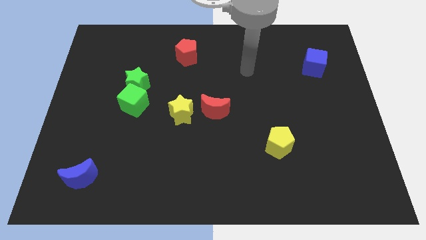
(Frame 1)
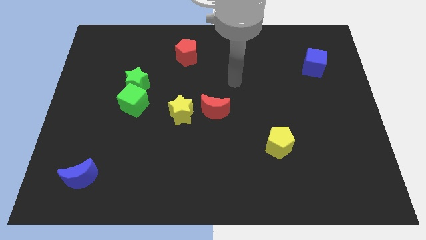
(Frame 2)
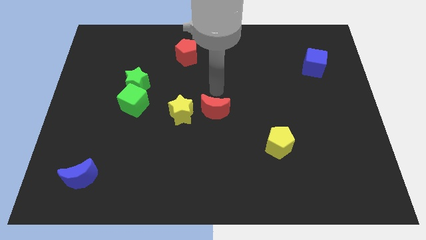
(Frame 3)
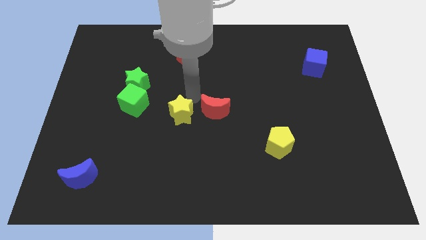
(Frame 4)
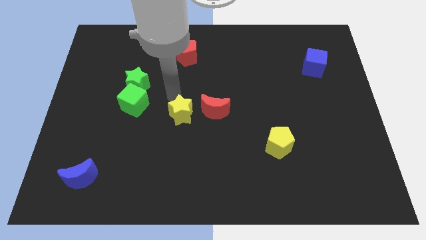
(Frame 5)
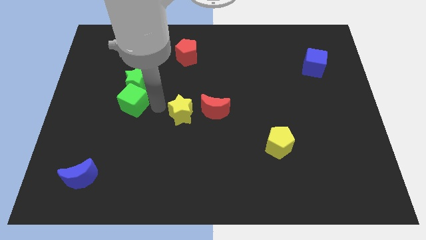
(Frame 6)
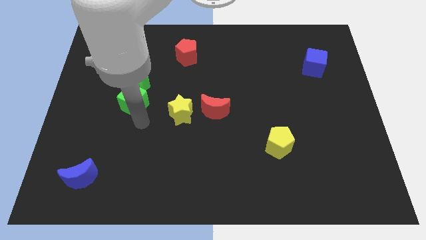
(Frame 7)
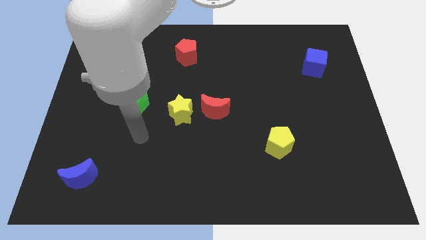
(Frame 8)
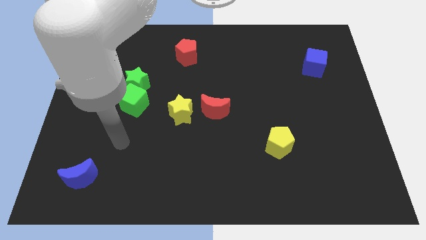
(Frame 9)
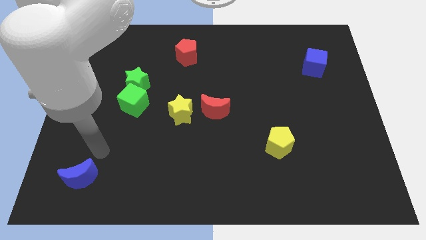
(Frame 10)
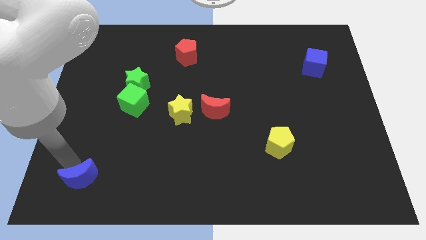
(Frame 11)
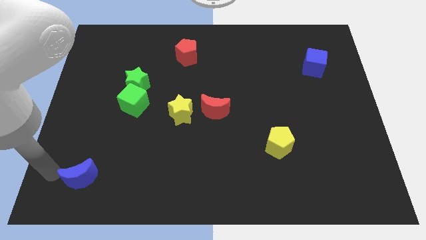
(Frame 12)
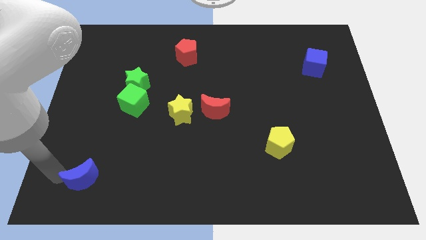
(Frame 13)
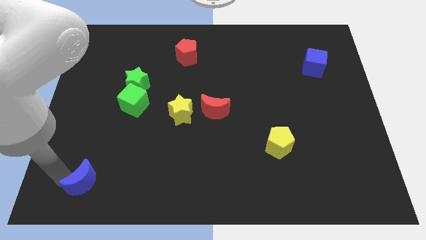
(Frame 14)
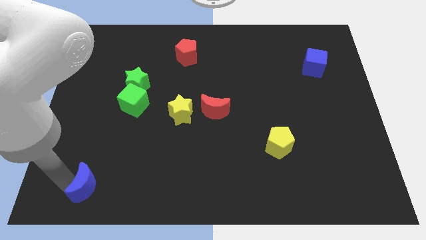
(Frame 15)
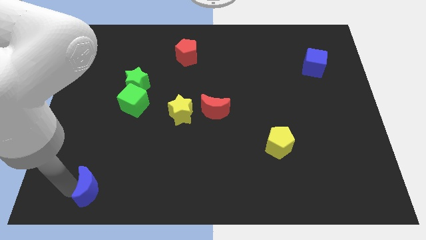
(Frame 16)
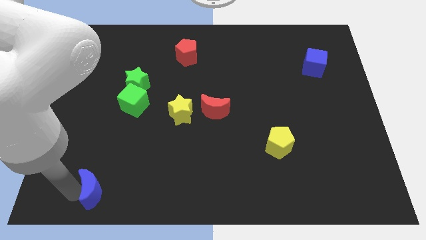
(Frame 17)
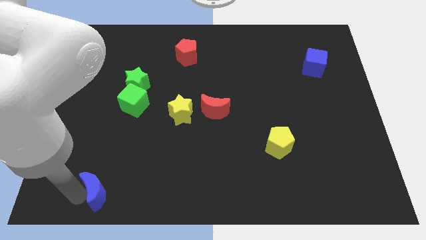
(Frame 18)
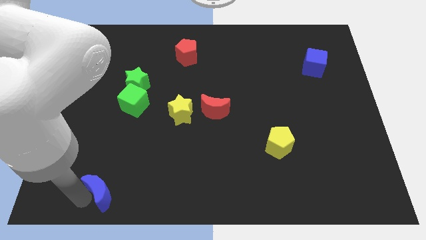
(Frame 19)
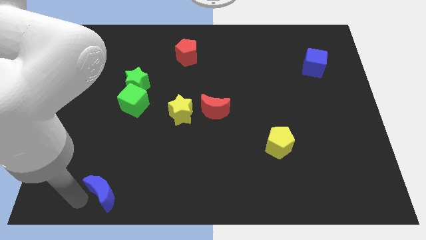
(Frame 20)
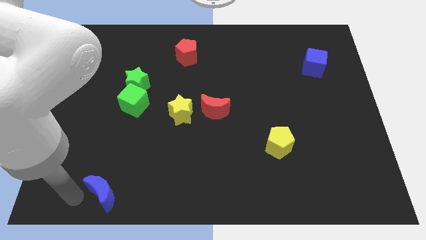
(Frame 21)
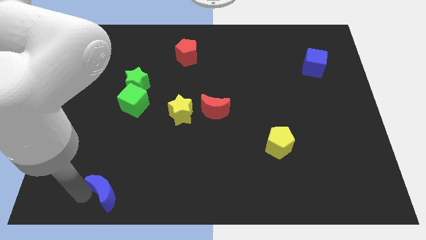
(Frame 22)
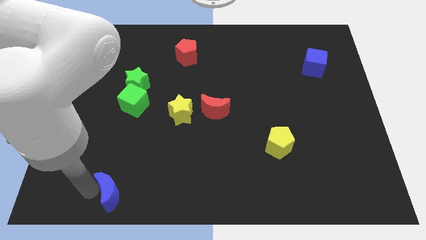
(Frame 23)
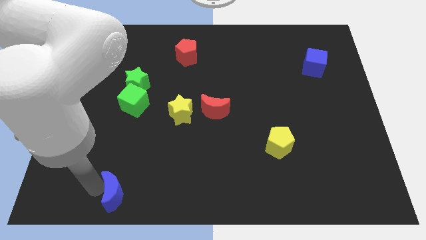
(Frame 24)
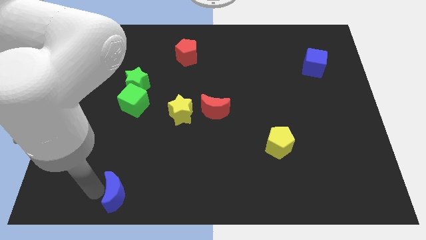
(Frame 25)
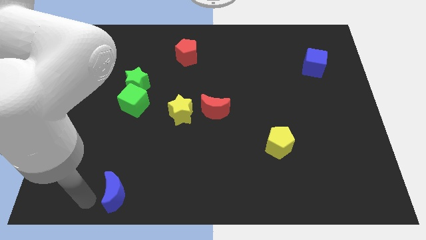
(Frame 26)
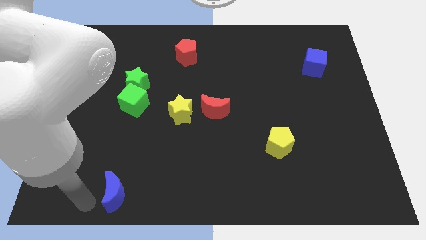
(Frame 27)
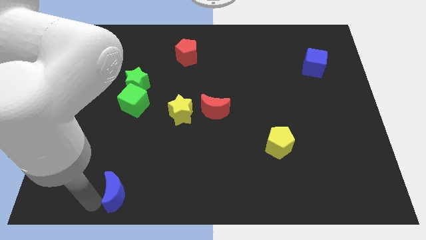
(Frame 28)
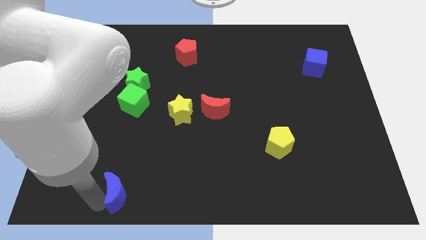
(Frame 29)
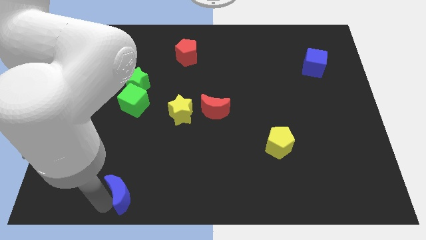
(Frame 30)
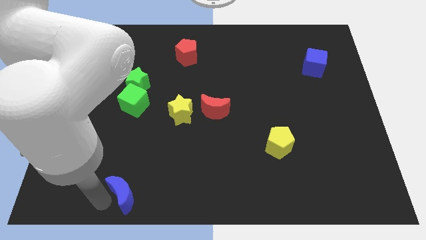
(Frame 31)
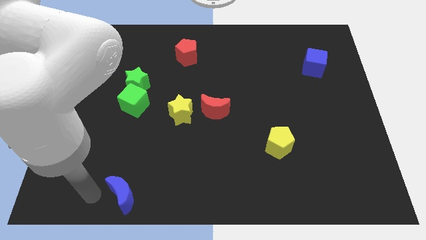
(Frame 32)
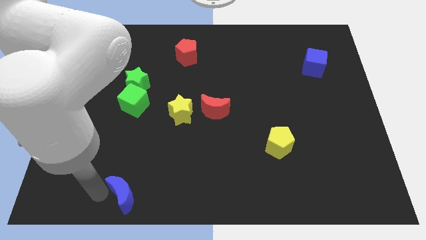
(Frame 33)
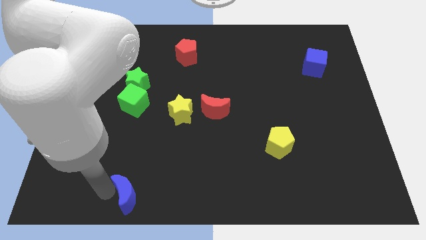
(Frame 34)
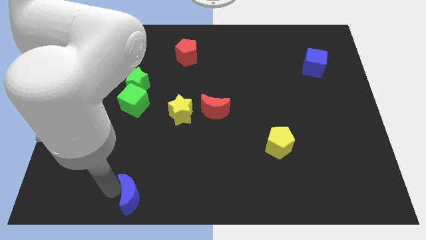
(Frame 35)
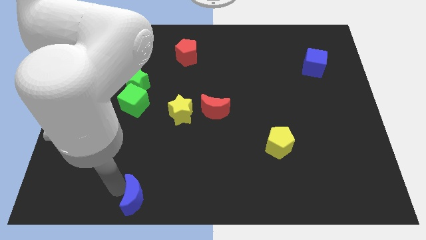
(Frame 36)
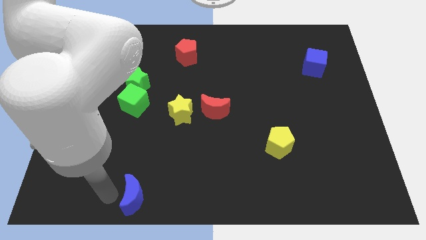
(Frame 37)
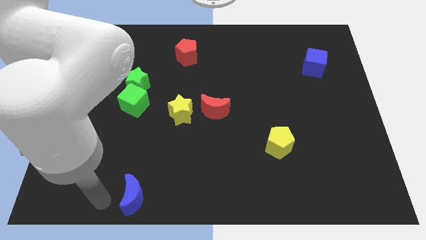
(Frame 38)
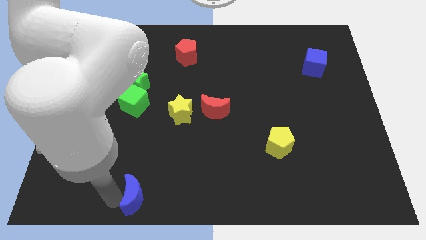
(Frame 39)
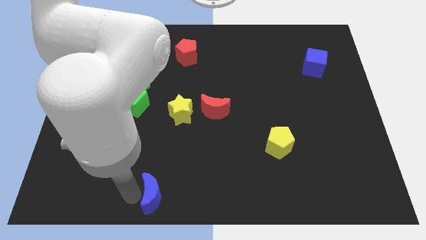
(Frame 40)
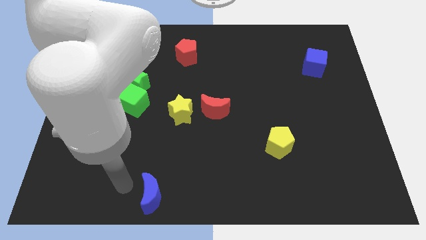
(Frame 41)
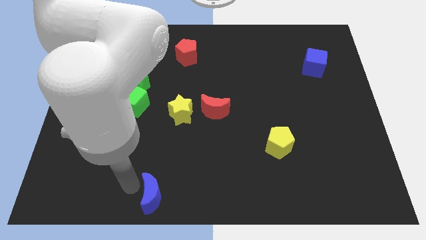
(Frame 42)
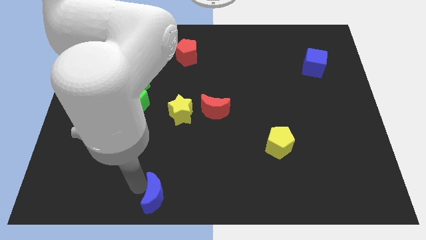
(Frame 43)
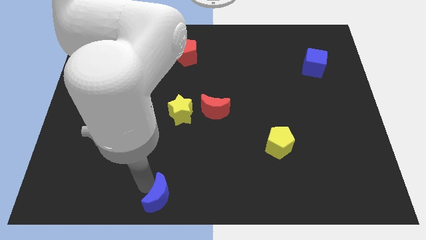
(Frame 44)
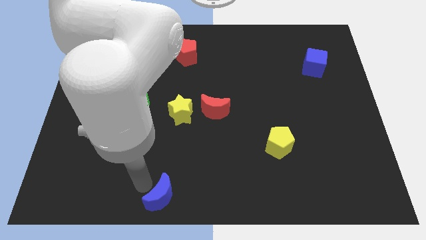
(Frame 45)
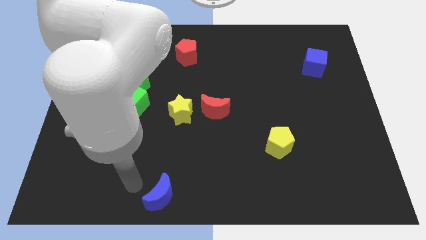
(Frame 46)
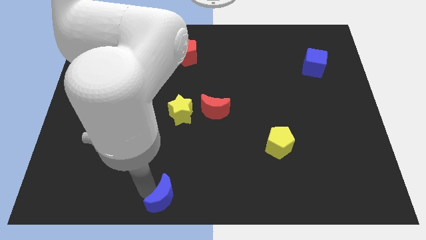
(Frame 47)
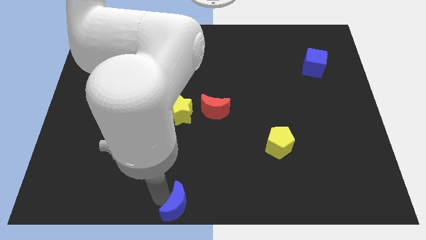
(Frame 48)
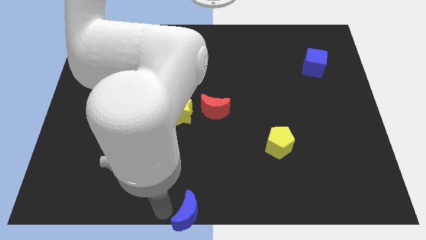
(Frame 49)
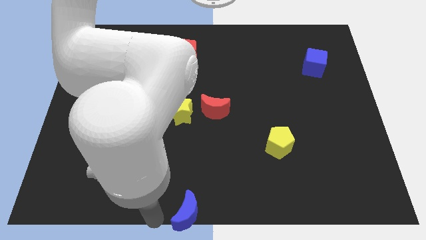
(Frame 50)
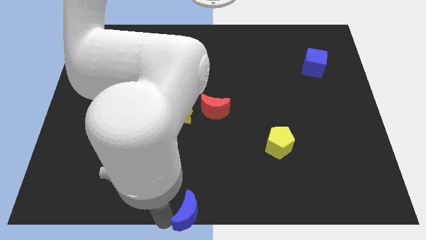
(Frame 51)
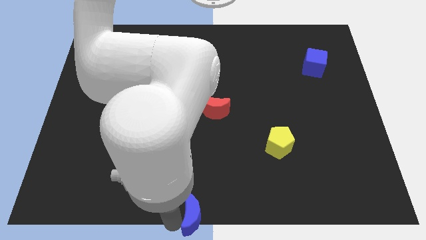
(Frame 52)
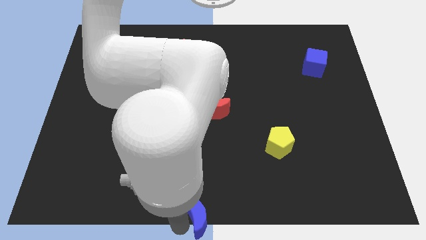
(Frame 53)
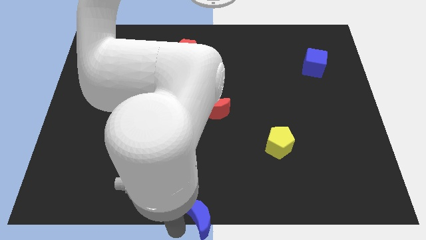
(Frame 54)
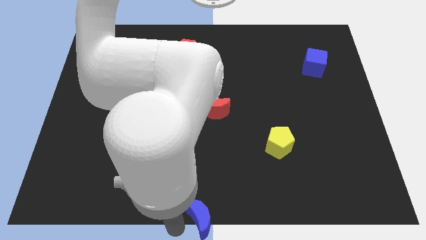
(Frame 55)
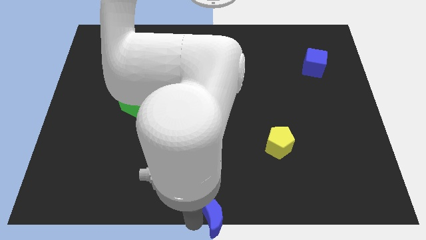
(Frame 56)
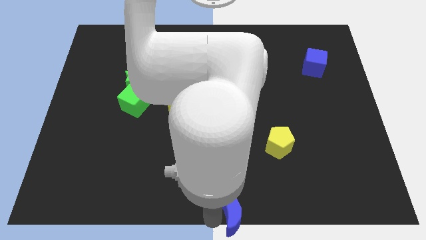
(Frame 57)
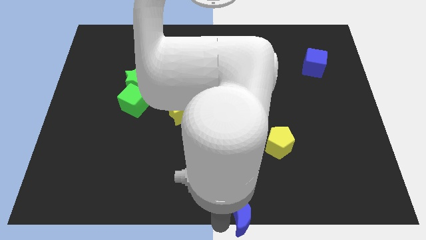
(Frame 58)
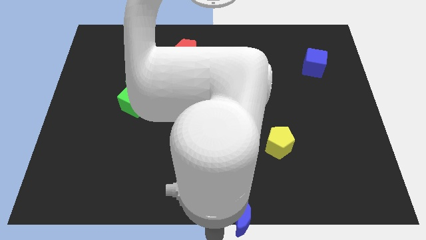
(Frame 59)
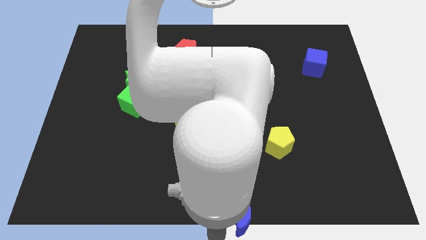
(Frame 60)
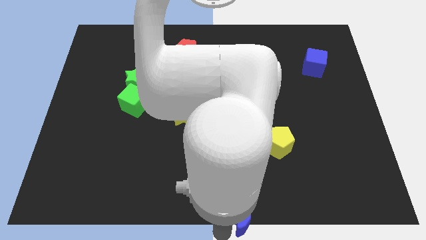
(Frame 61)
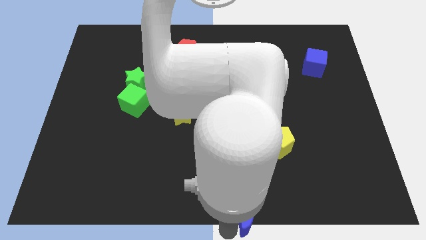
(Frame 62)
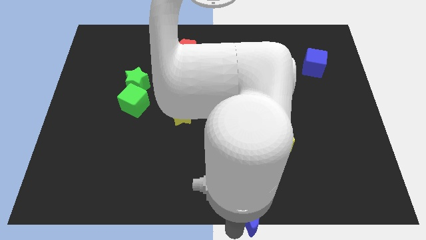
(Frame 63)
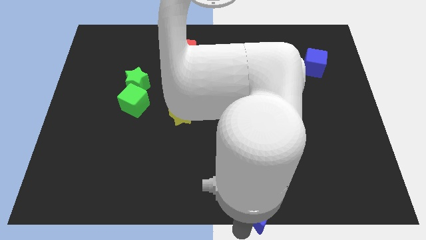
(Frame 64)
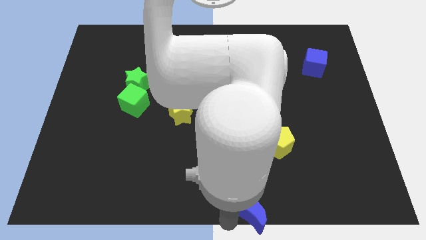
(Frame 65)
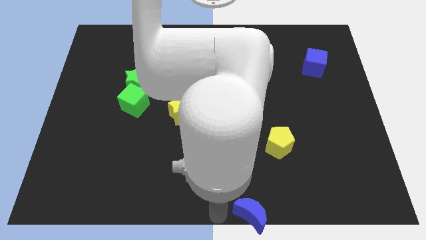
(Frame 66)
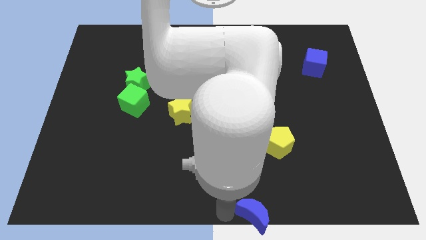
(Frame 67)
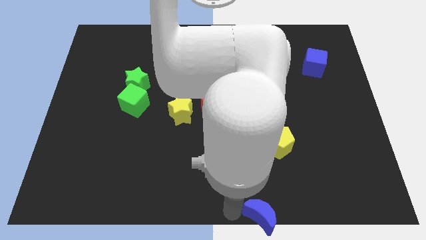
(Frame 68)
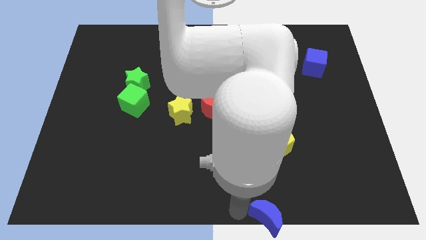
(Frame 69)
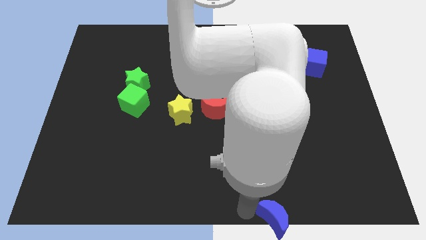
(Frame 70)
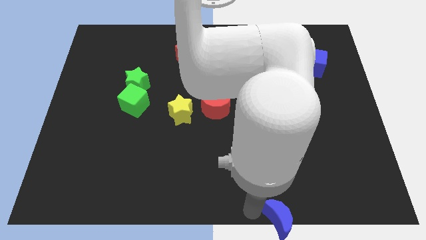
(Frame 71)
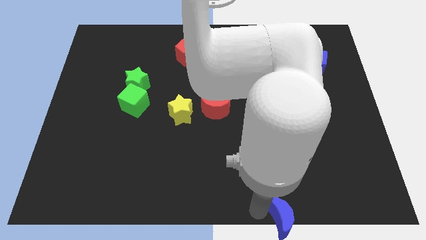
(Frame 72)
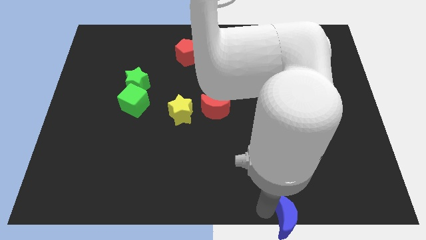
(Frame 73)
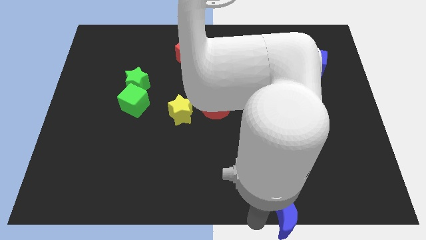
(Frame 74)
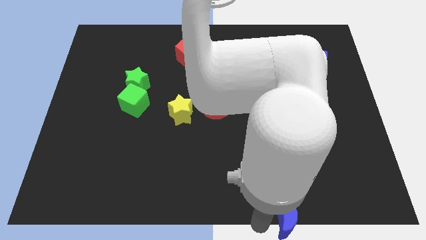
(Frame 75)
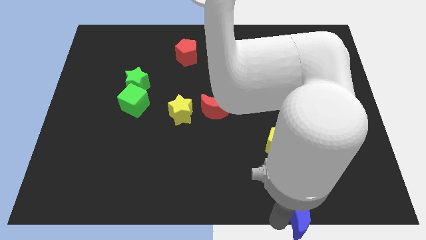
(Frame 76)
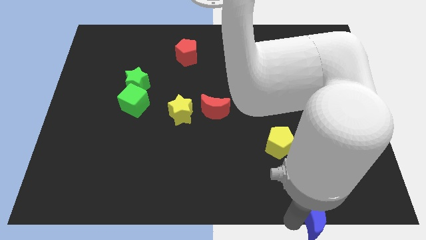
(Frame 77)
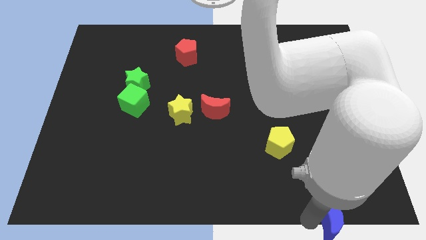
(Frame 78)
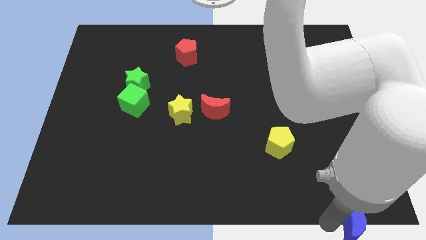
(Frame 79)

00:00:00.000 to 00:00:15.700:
slide the blue moon to the lower right corner
